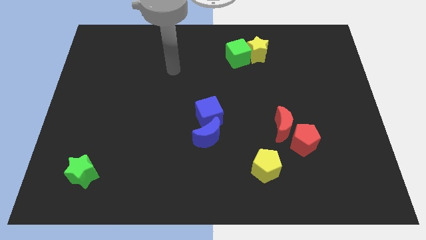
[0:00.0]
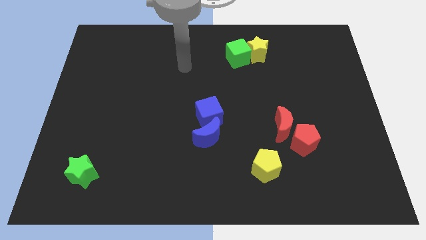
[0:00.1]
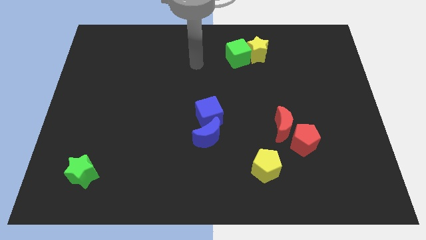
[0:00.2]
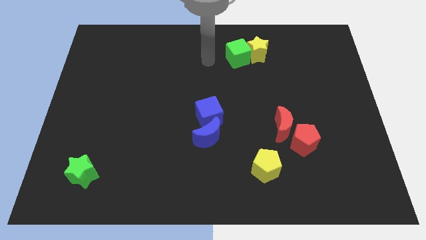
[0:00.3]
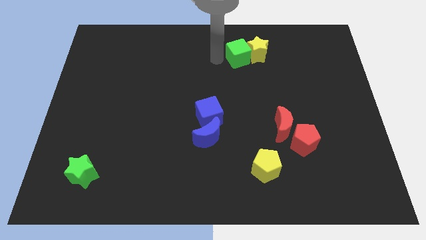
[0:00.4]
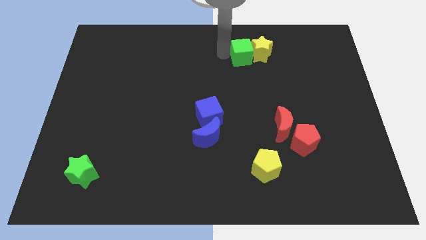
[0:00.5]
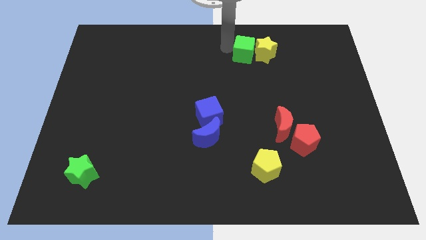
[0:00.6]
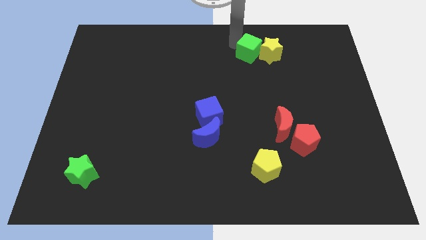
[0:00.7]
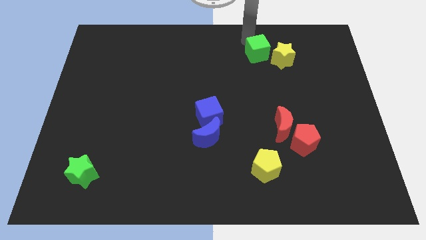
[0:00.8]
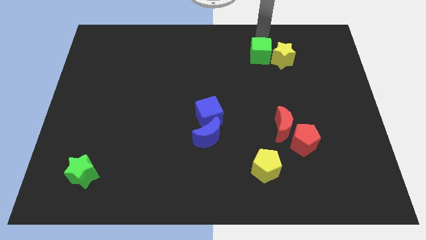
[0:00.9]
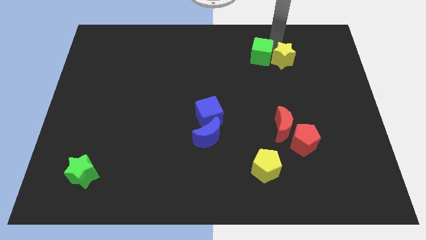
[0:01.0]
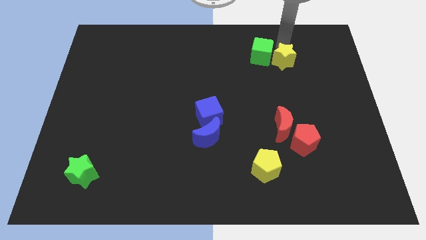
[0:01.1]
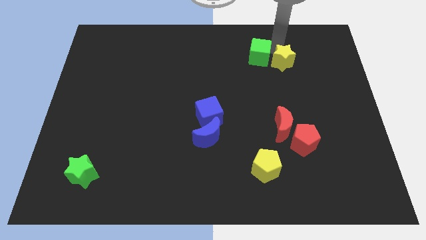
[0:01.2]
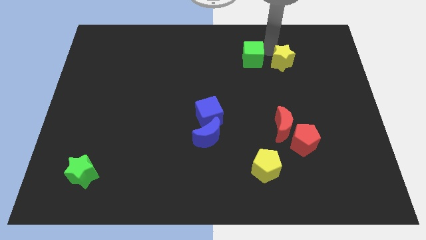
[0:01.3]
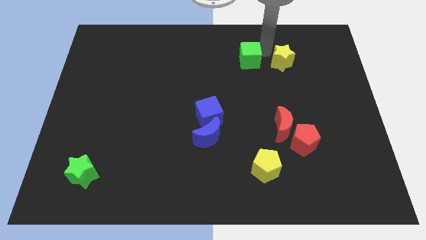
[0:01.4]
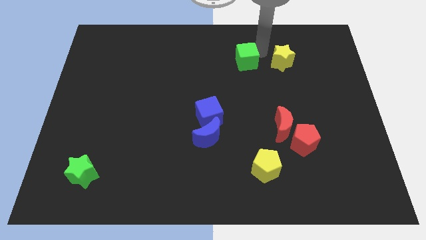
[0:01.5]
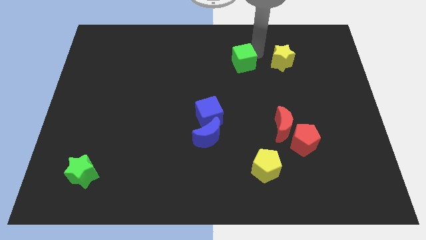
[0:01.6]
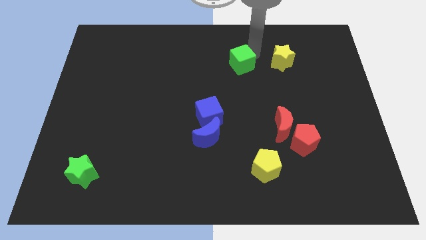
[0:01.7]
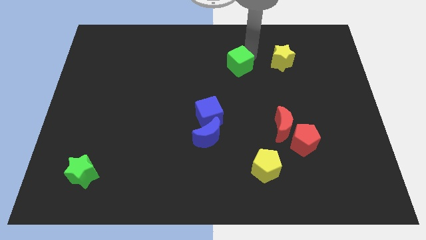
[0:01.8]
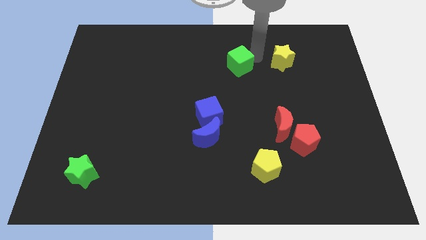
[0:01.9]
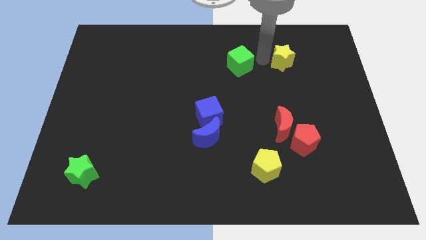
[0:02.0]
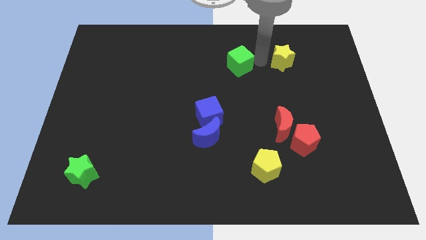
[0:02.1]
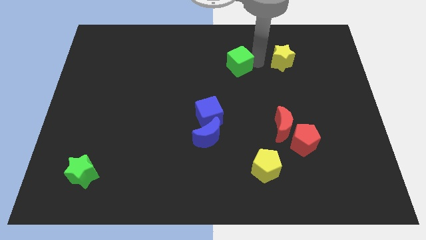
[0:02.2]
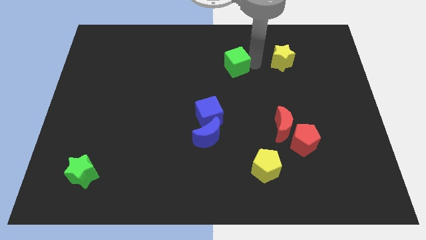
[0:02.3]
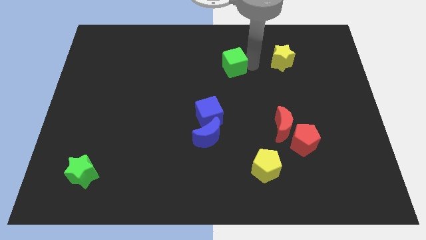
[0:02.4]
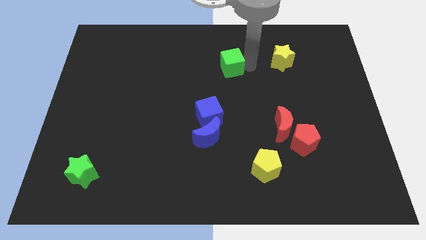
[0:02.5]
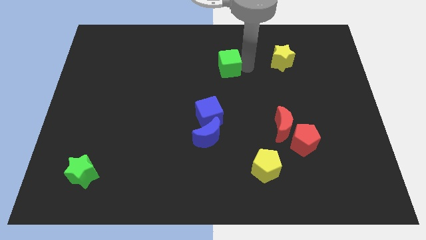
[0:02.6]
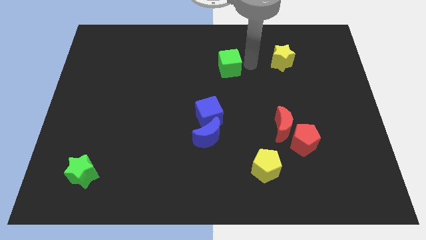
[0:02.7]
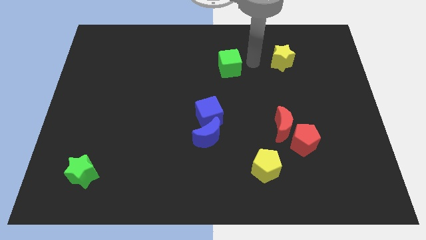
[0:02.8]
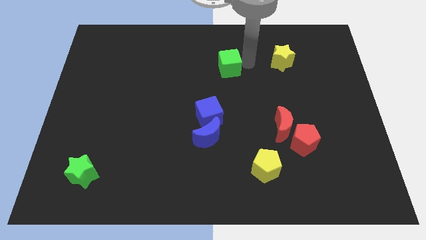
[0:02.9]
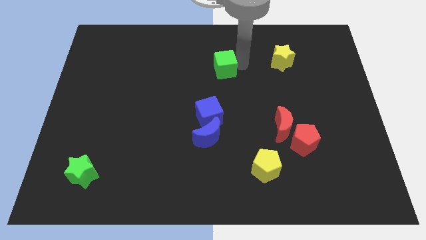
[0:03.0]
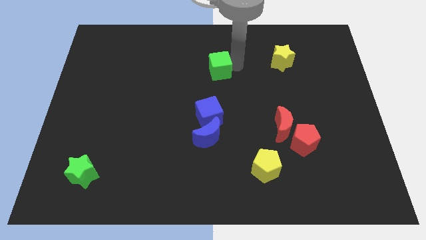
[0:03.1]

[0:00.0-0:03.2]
slightly push the green cube down and to the left diagonally

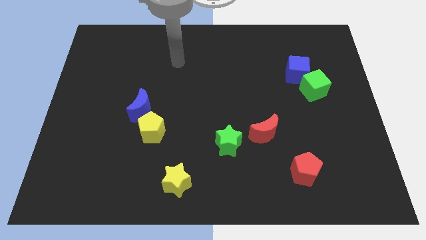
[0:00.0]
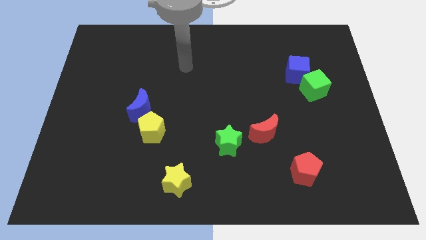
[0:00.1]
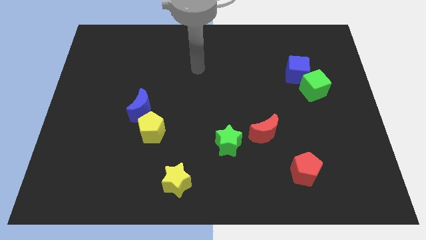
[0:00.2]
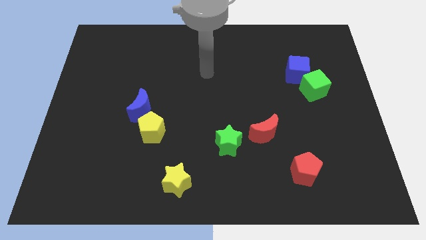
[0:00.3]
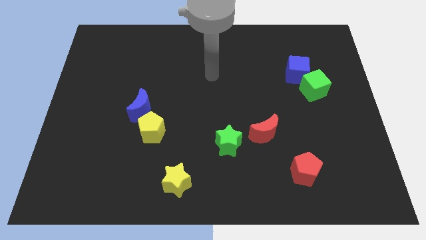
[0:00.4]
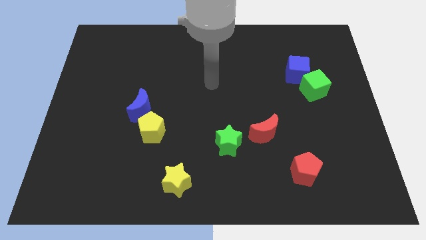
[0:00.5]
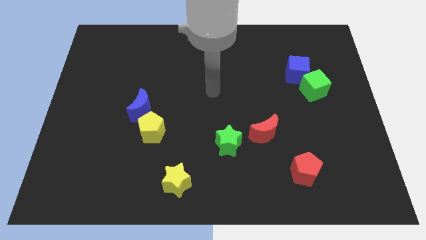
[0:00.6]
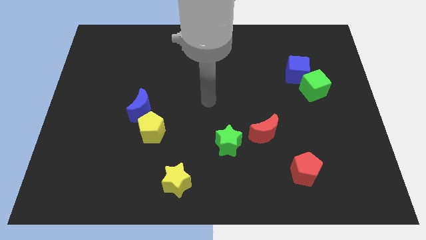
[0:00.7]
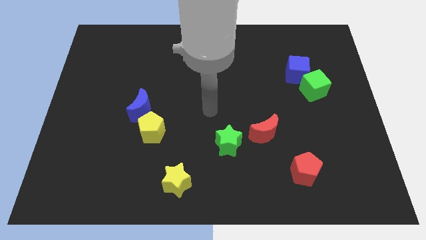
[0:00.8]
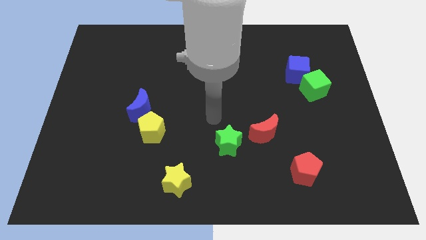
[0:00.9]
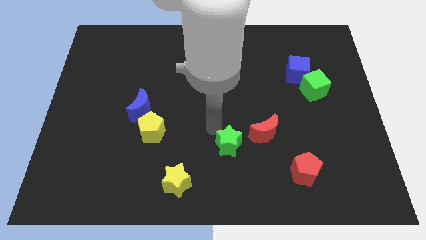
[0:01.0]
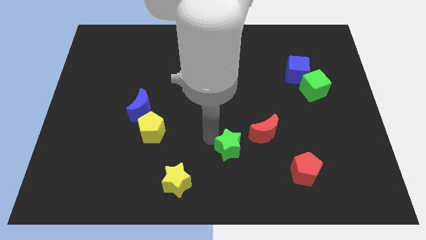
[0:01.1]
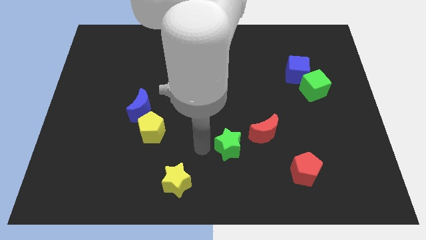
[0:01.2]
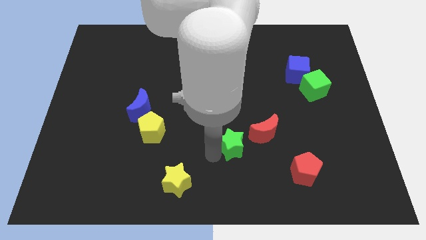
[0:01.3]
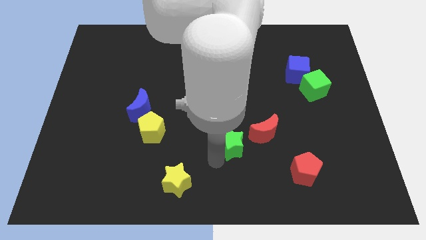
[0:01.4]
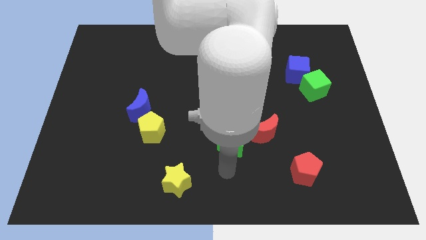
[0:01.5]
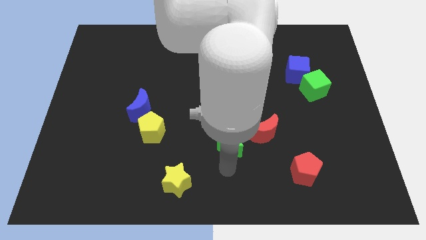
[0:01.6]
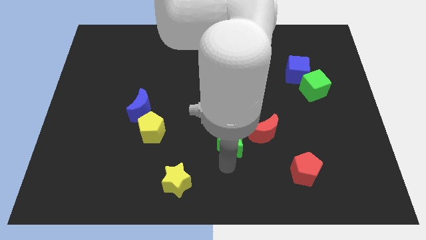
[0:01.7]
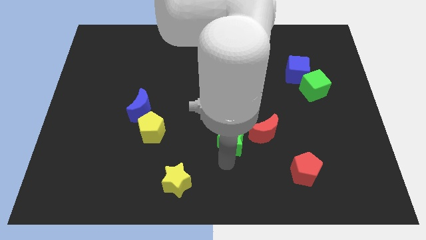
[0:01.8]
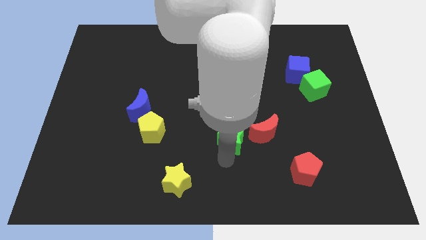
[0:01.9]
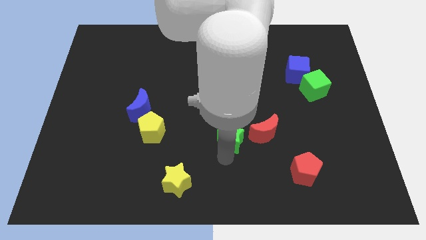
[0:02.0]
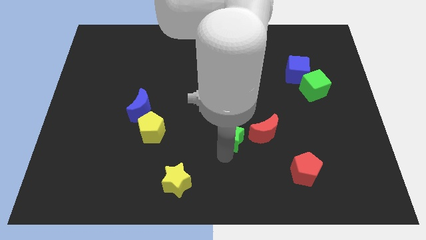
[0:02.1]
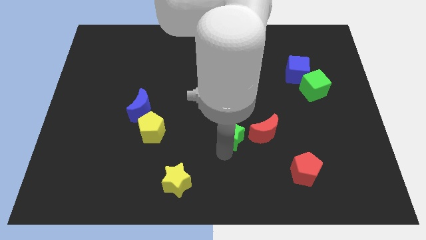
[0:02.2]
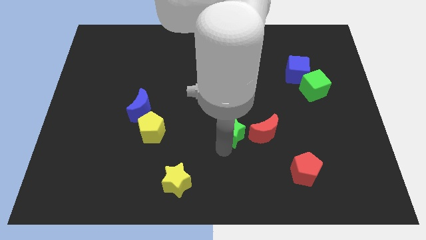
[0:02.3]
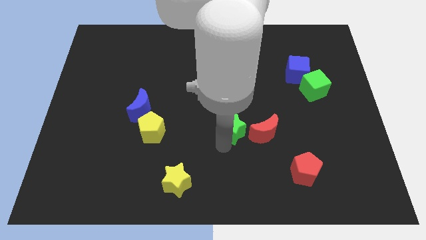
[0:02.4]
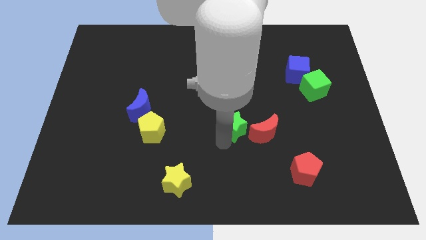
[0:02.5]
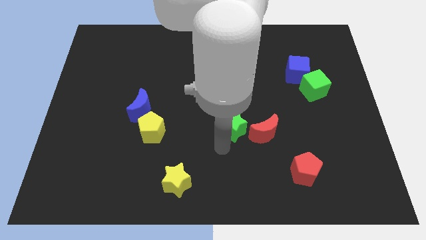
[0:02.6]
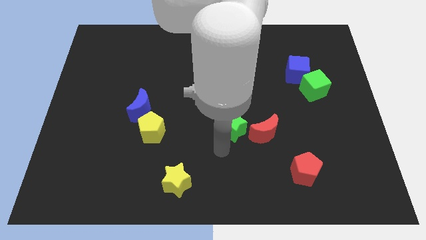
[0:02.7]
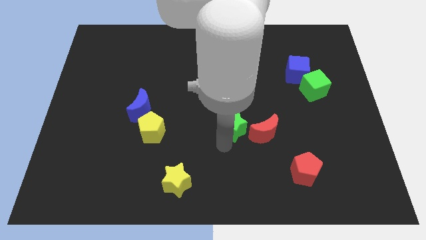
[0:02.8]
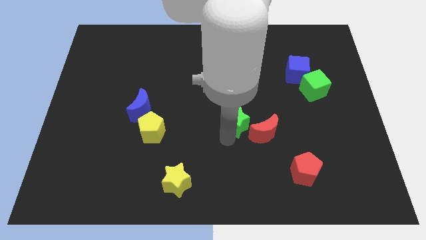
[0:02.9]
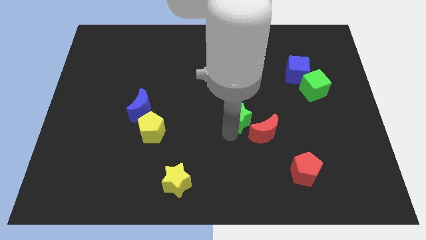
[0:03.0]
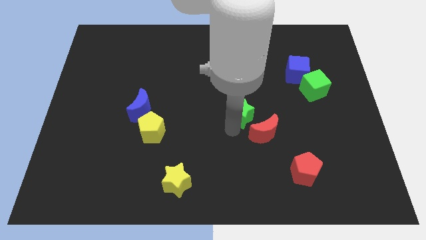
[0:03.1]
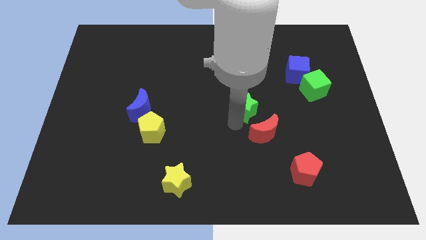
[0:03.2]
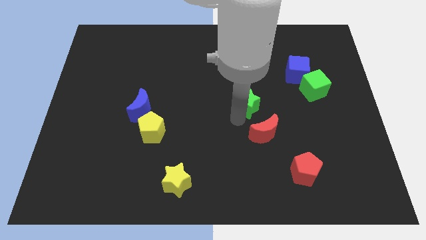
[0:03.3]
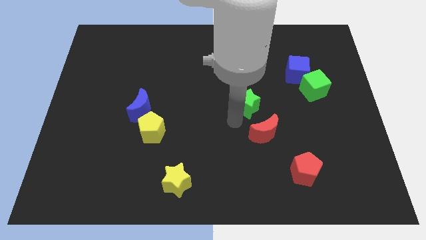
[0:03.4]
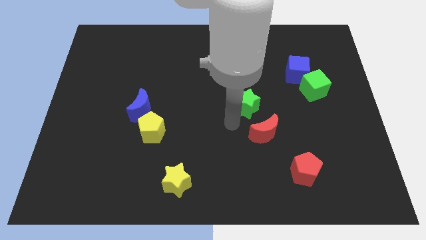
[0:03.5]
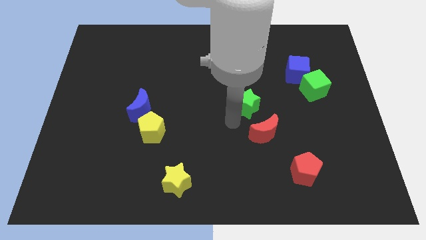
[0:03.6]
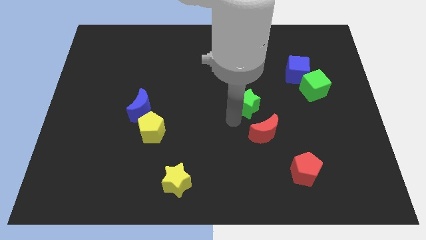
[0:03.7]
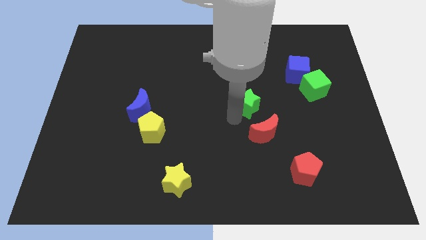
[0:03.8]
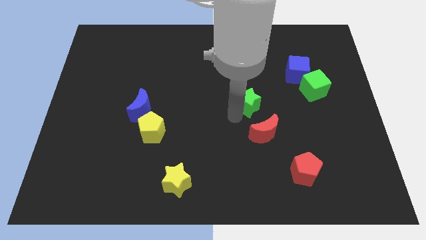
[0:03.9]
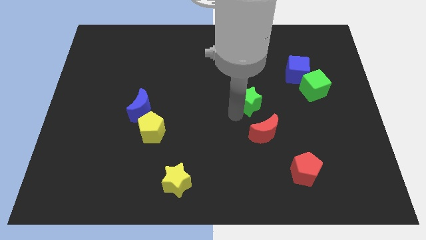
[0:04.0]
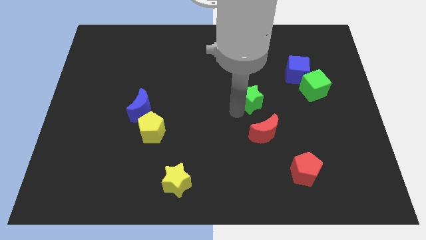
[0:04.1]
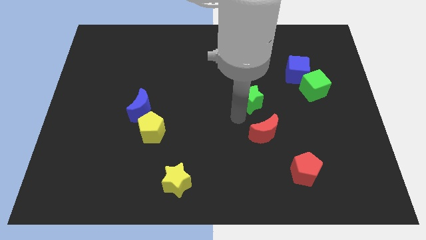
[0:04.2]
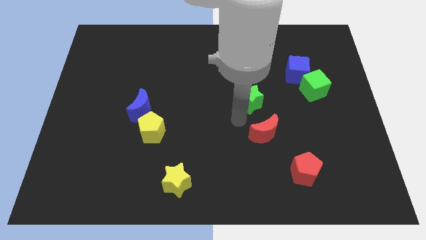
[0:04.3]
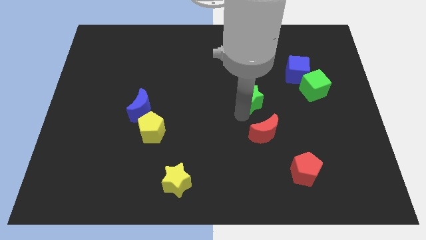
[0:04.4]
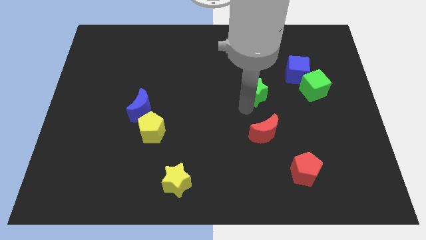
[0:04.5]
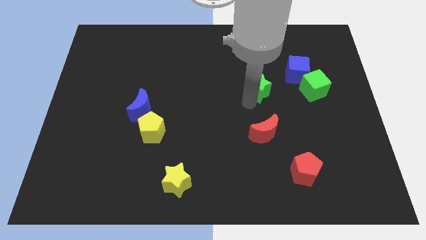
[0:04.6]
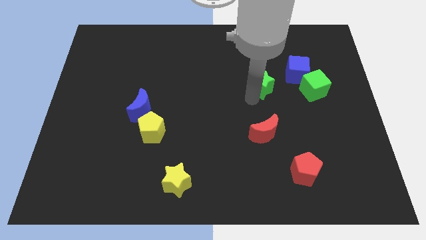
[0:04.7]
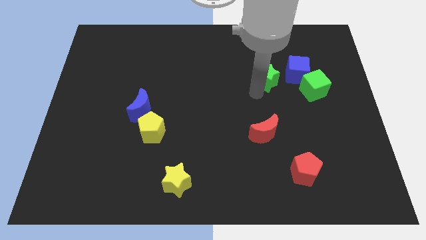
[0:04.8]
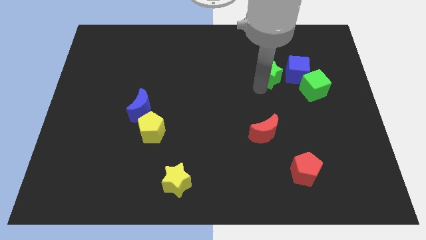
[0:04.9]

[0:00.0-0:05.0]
push the green star upwards and right
